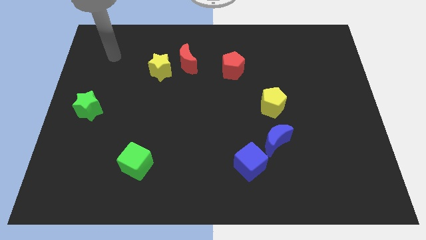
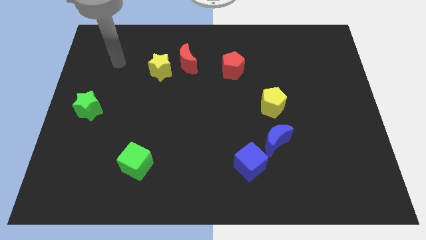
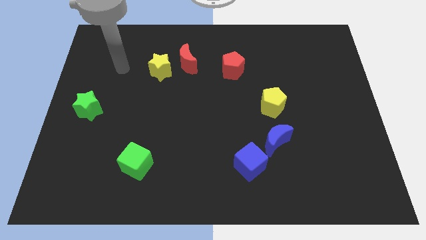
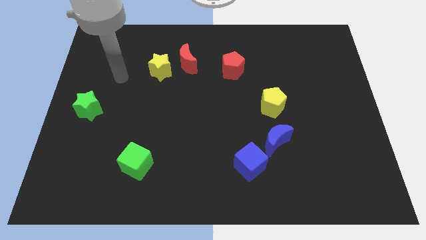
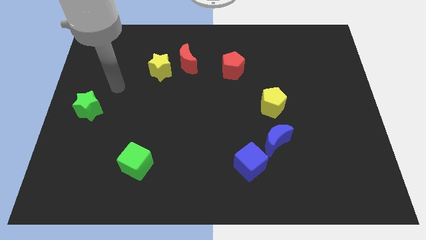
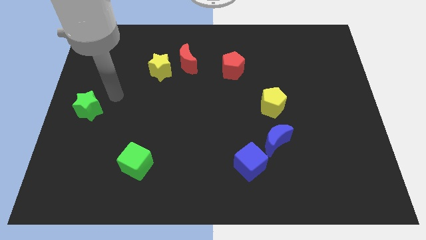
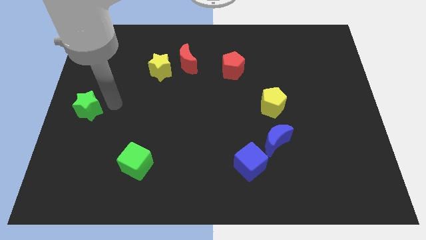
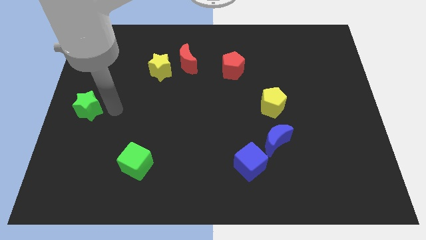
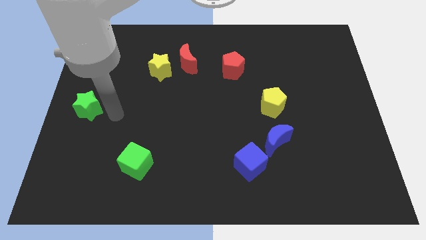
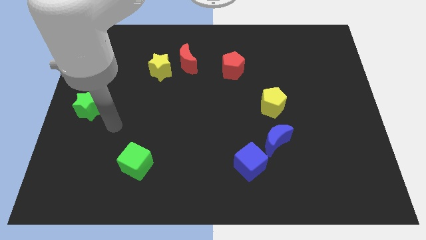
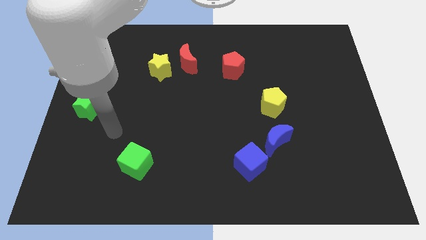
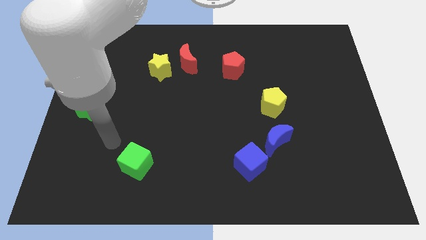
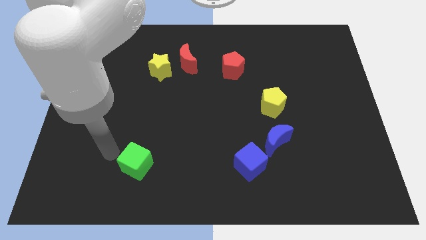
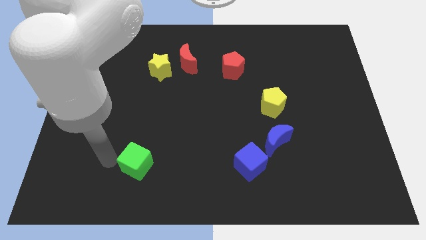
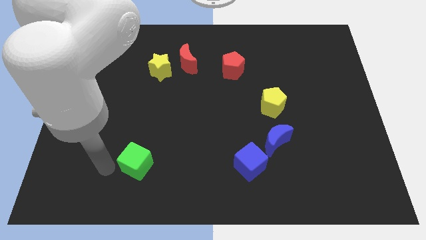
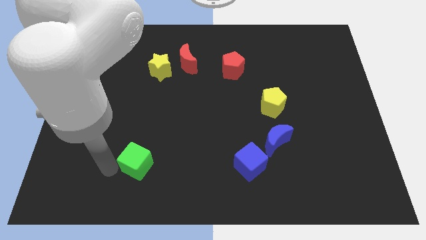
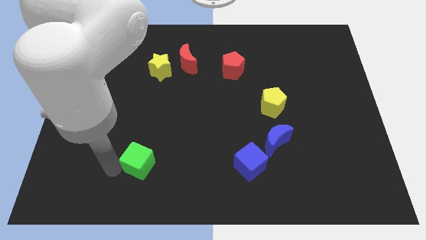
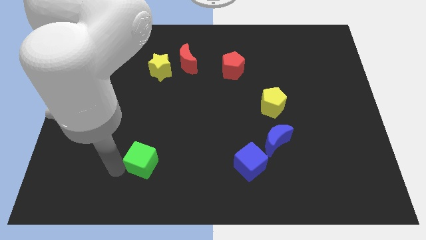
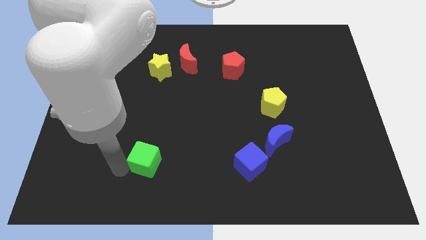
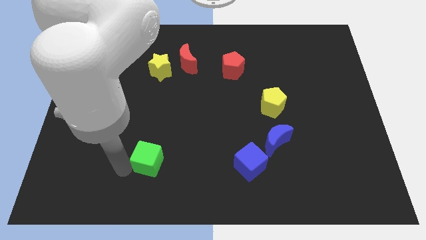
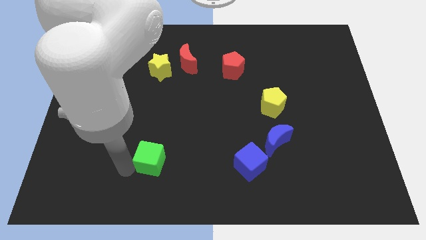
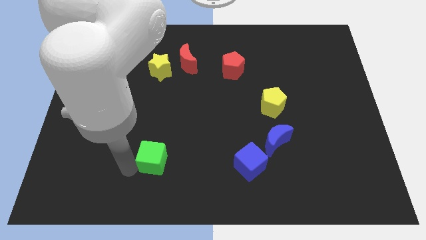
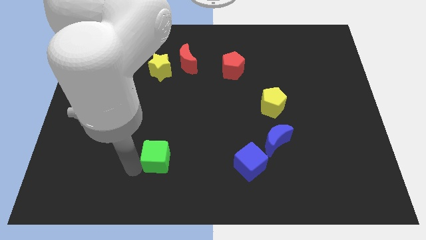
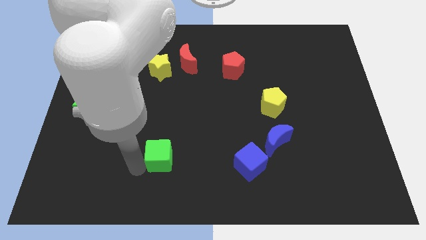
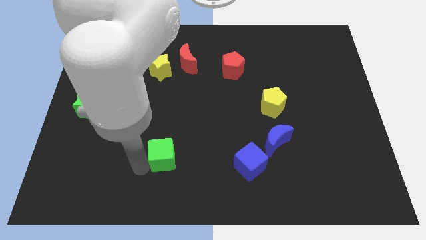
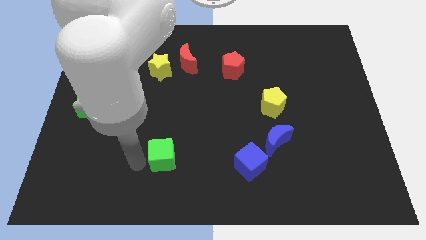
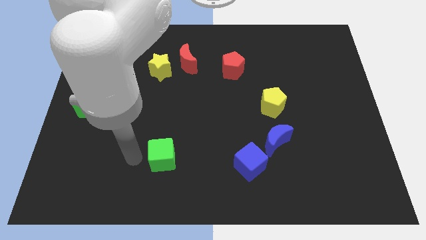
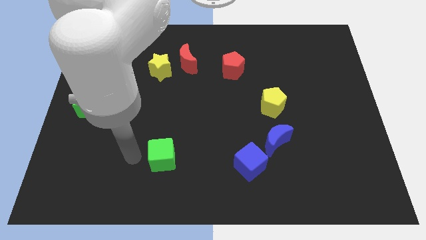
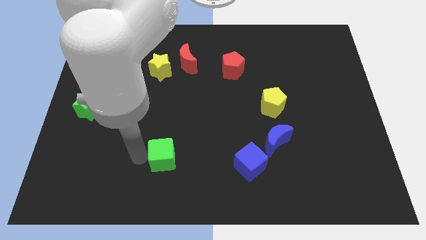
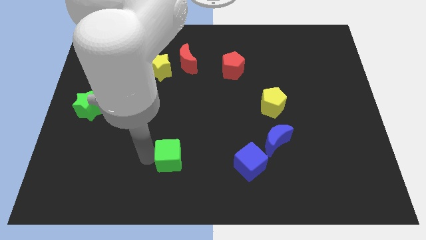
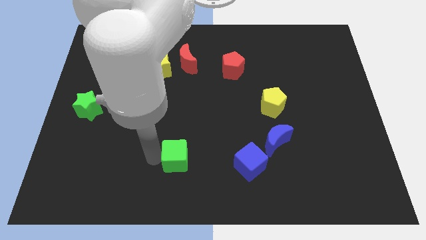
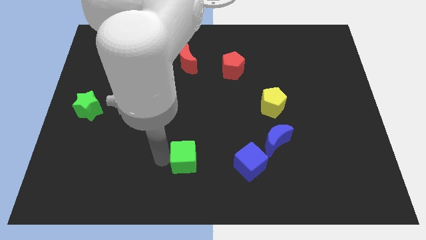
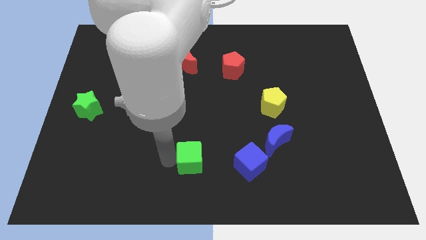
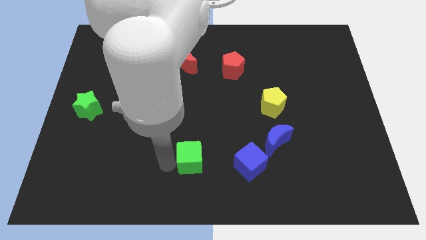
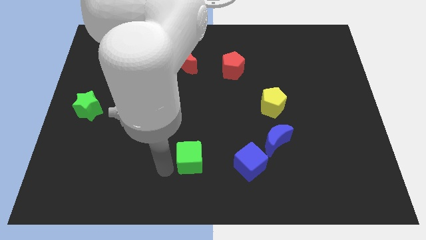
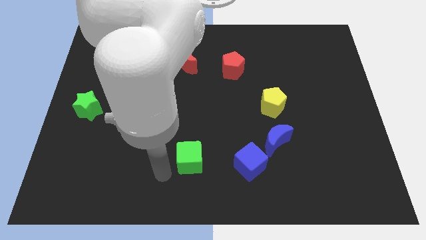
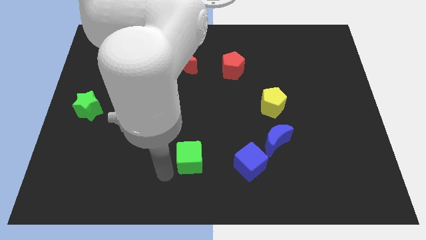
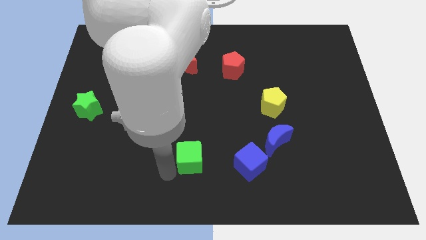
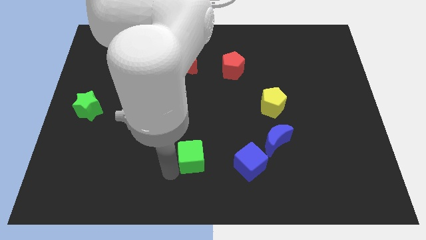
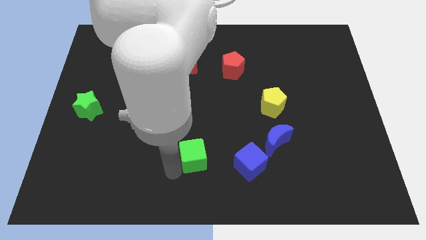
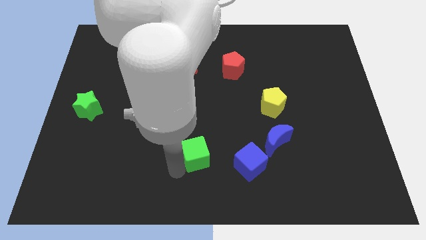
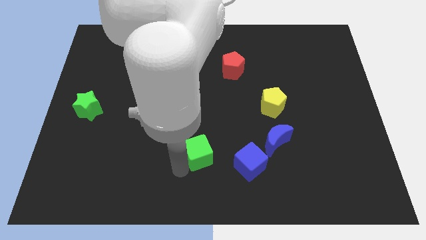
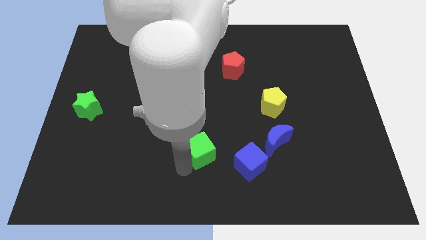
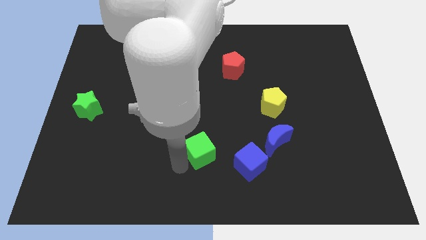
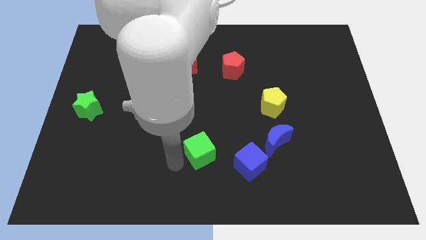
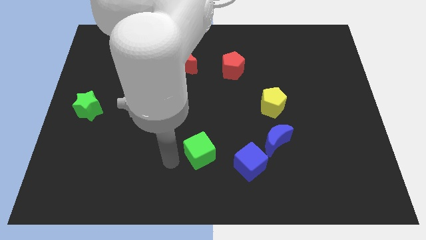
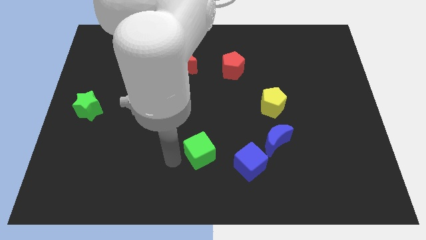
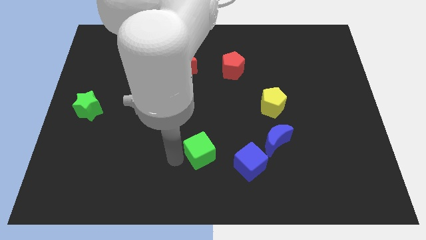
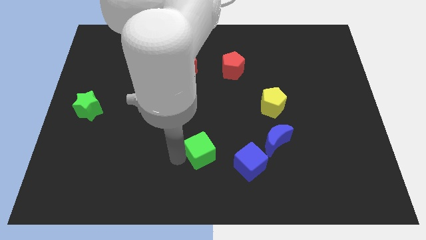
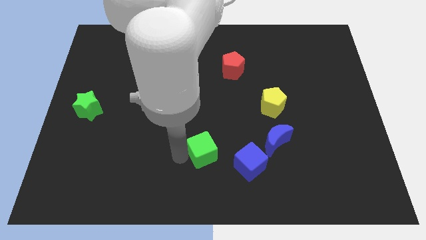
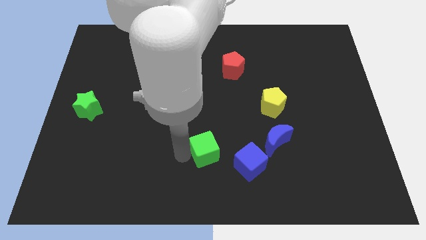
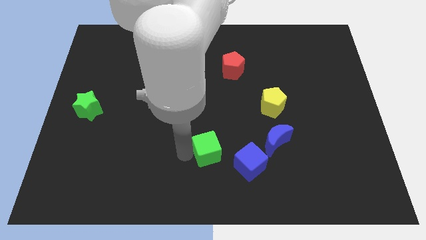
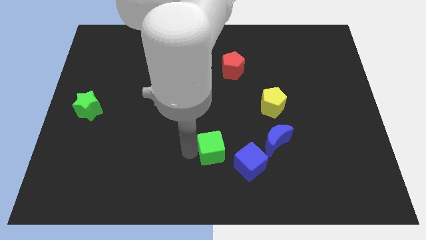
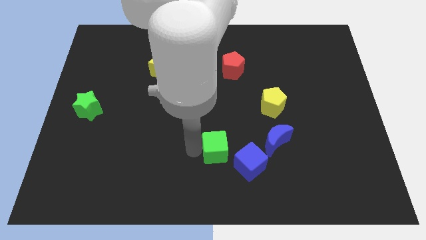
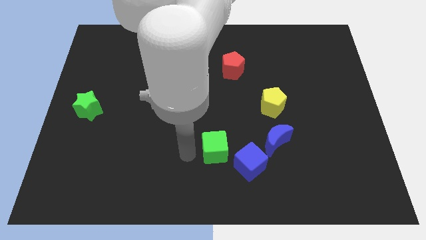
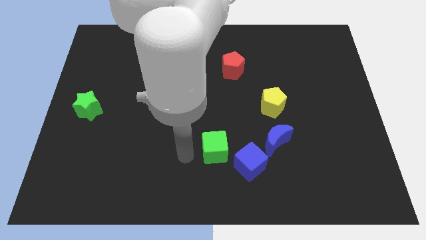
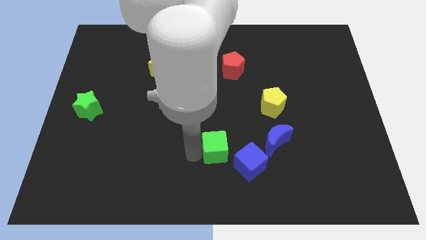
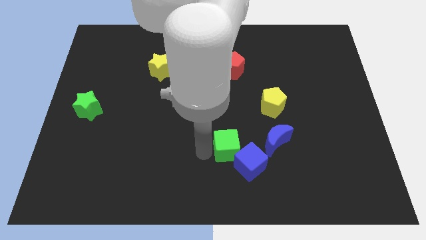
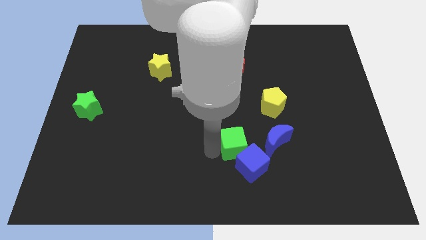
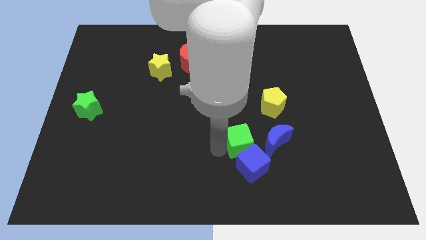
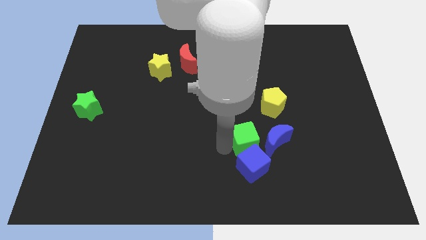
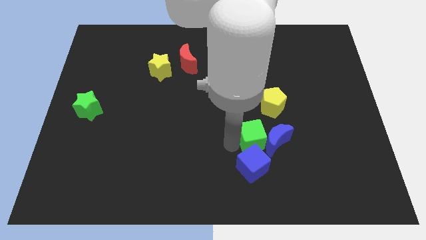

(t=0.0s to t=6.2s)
move the green cube towards the blue moon

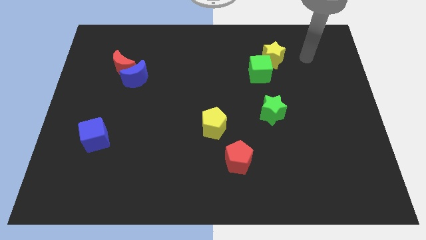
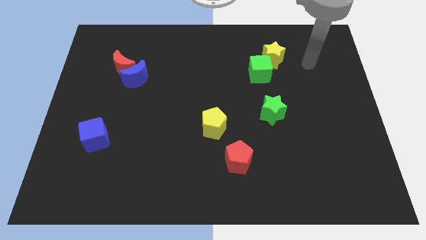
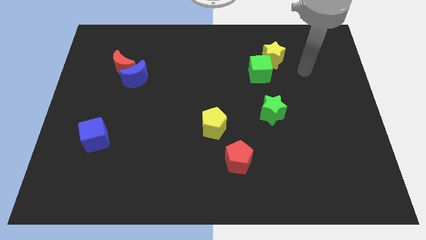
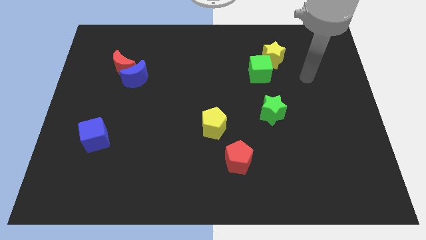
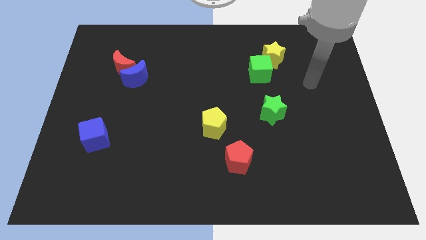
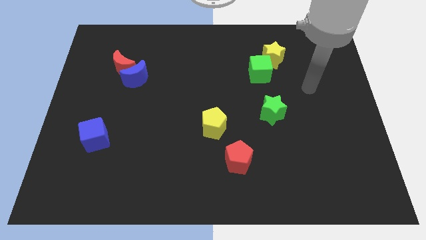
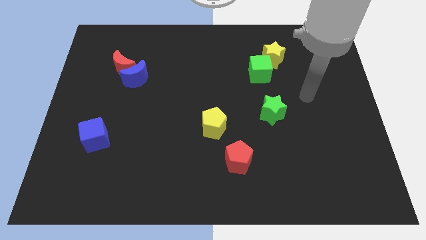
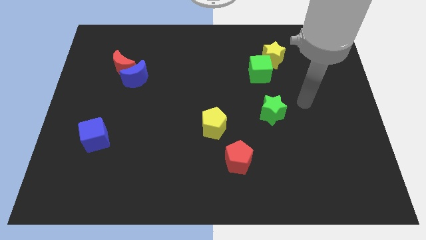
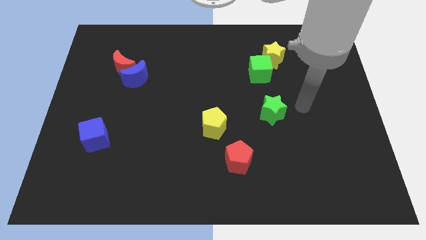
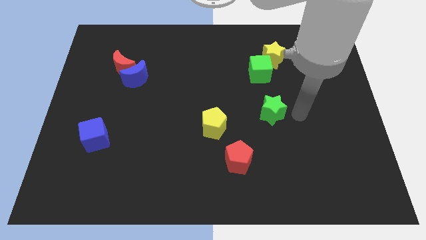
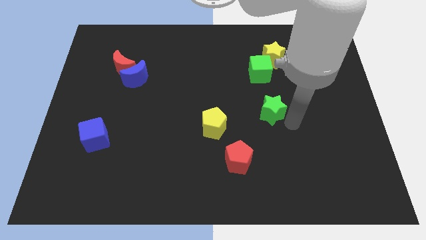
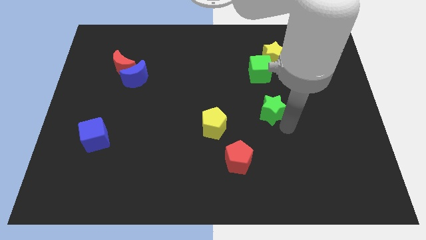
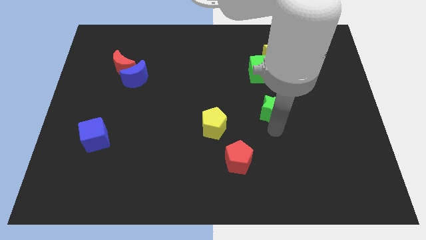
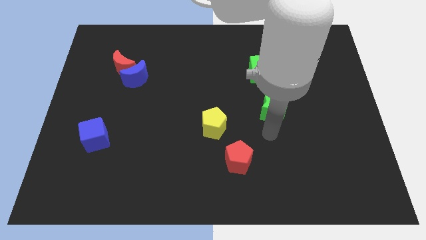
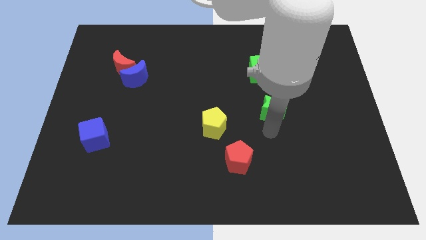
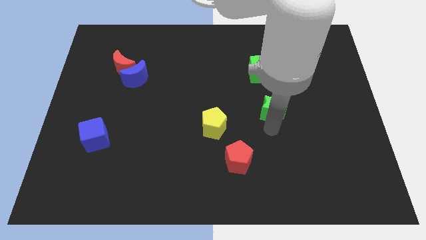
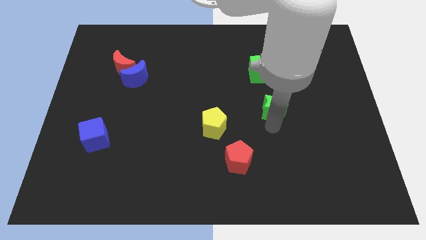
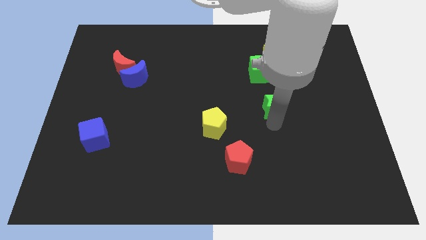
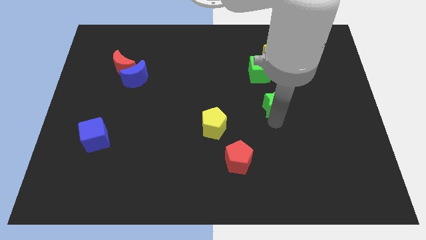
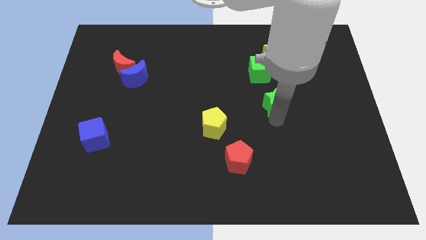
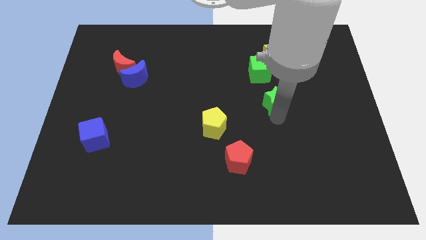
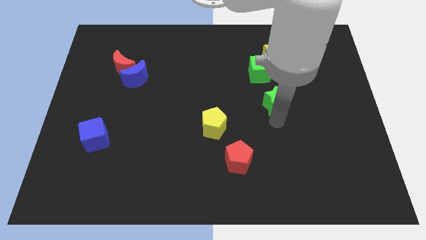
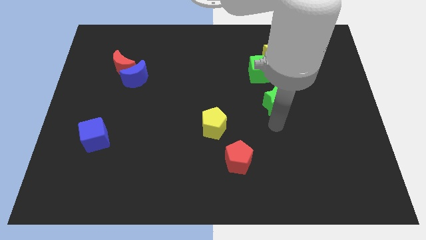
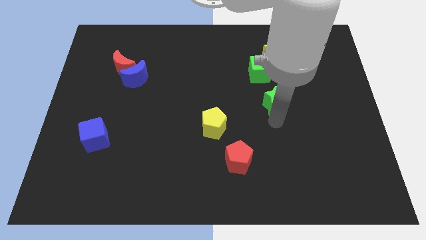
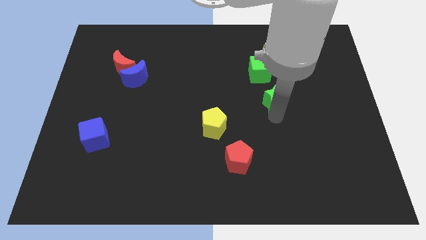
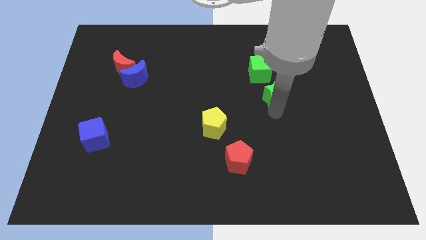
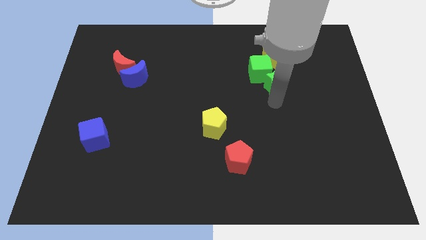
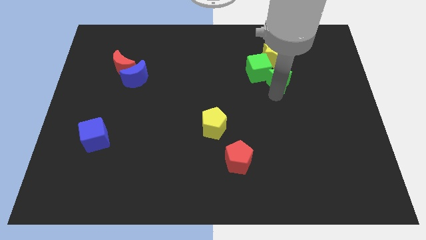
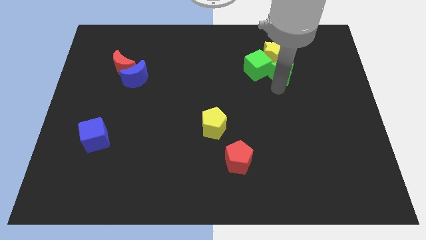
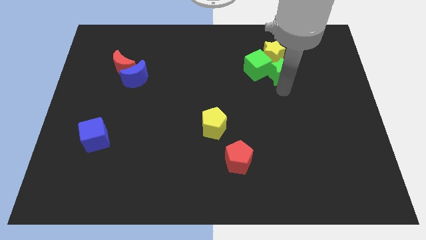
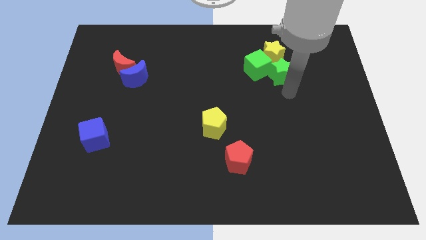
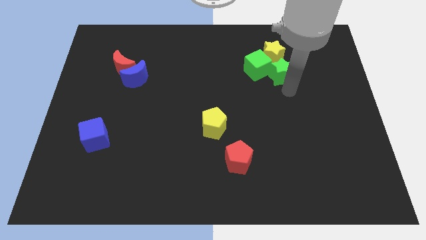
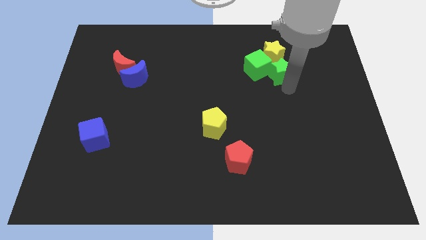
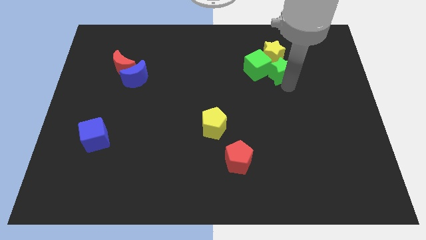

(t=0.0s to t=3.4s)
move the green star next to the yellow star
